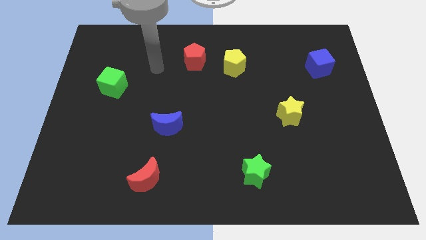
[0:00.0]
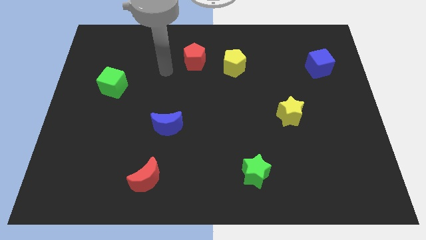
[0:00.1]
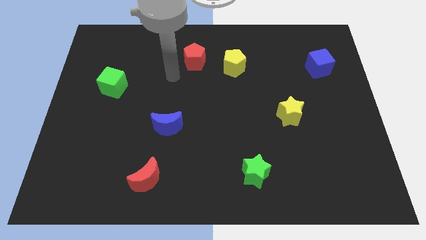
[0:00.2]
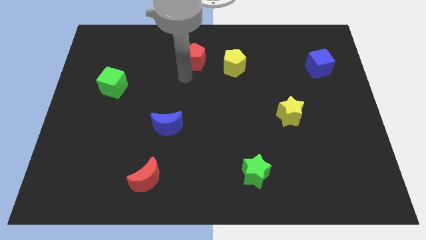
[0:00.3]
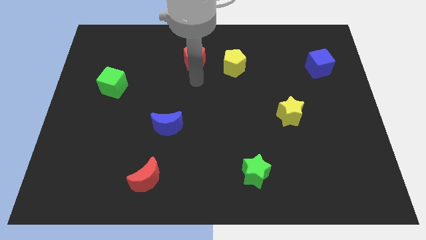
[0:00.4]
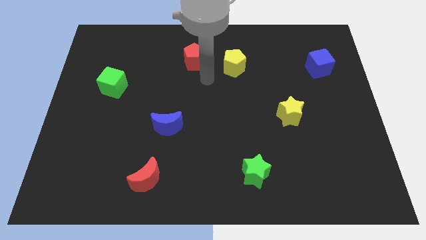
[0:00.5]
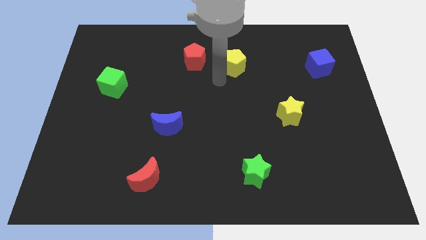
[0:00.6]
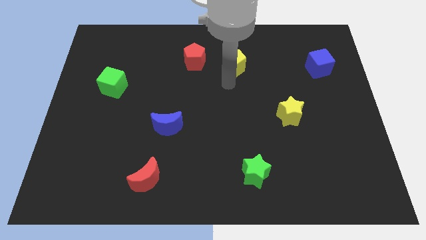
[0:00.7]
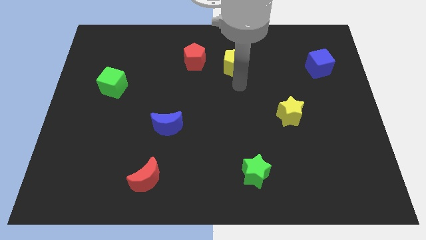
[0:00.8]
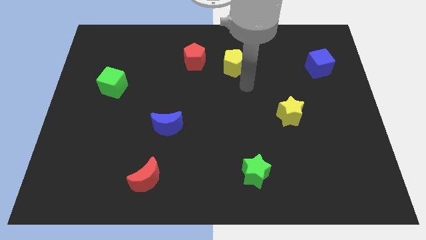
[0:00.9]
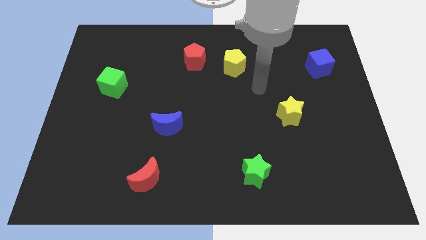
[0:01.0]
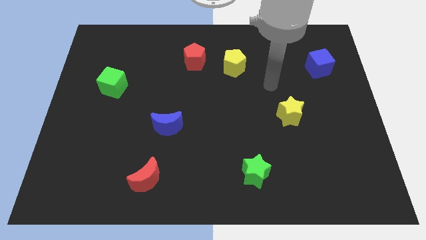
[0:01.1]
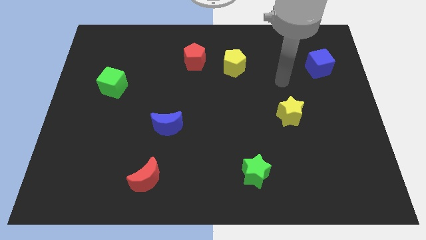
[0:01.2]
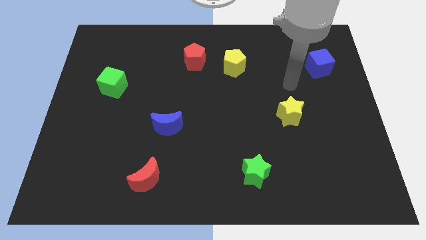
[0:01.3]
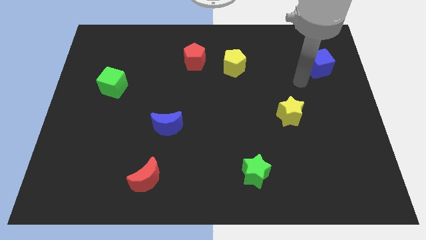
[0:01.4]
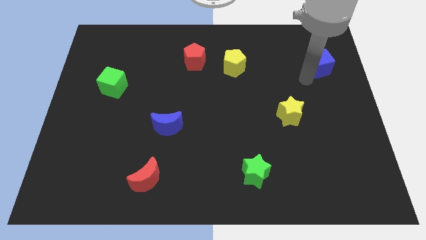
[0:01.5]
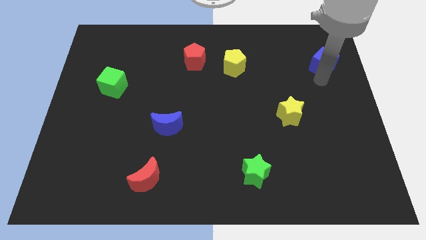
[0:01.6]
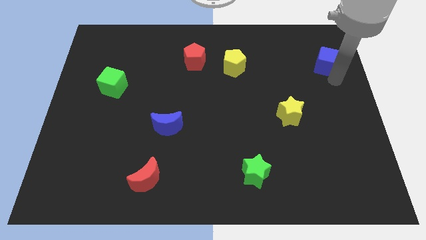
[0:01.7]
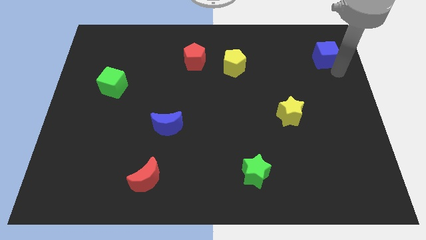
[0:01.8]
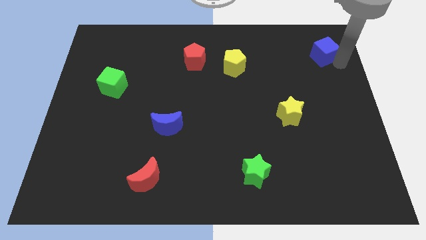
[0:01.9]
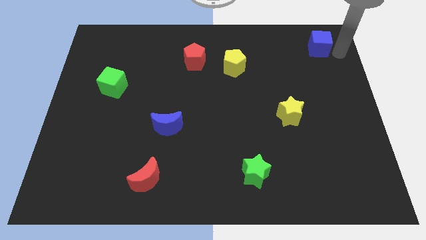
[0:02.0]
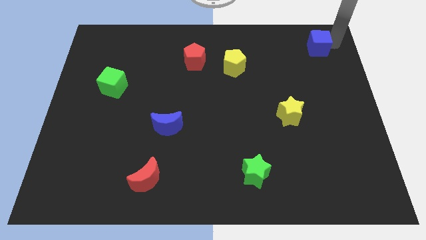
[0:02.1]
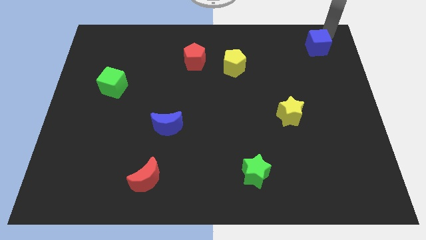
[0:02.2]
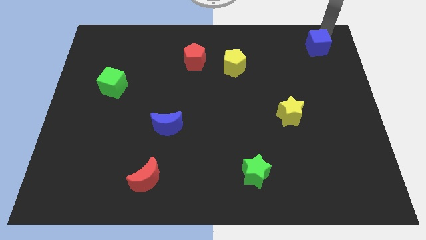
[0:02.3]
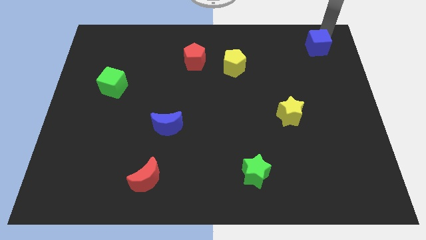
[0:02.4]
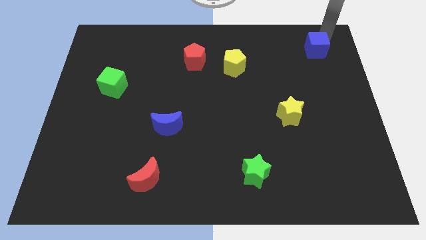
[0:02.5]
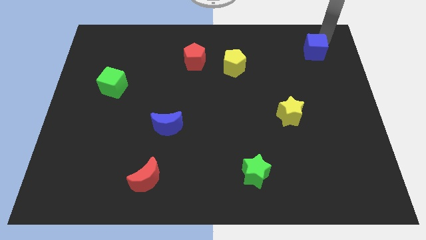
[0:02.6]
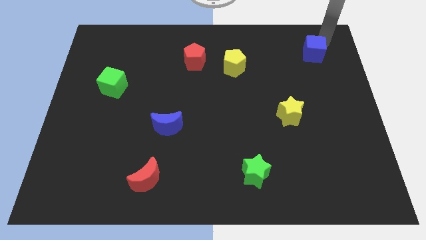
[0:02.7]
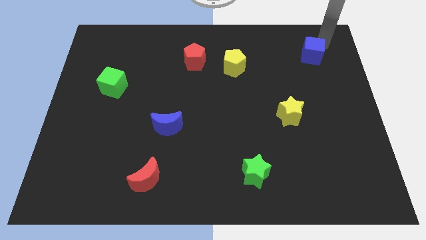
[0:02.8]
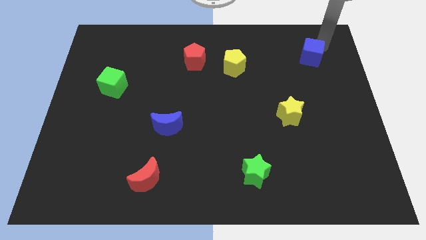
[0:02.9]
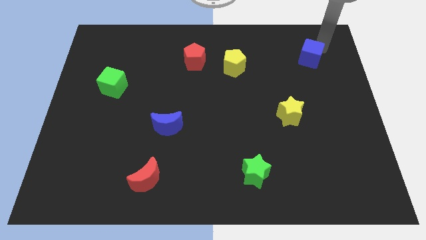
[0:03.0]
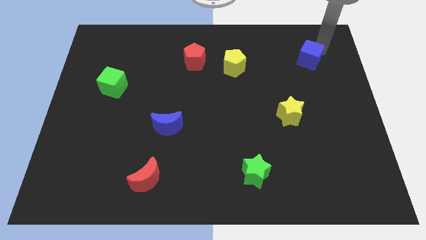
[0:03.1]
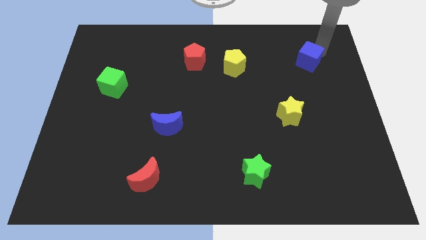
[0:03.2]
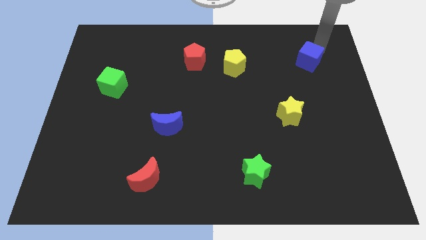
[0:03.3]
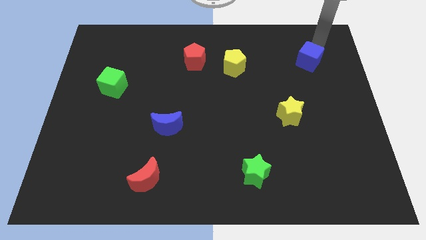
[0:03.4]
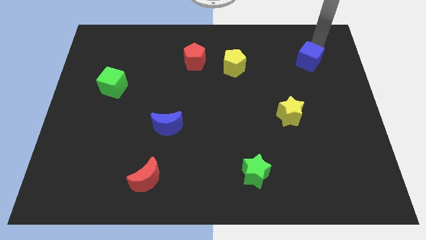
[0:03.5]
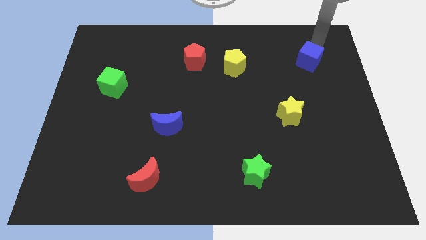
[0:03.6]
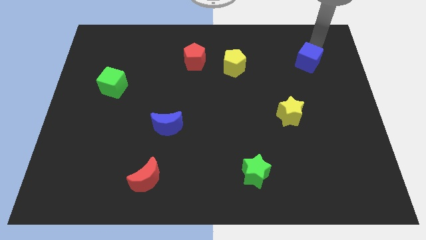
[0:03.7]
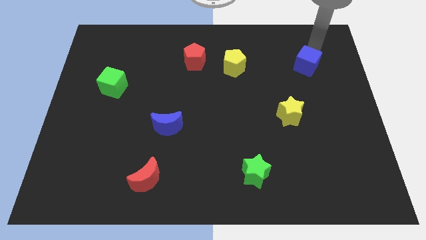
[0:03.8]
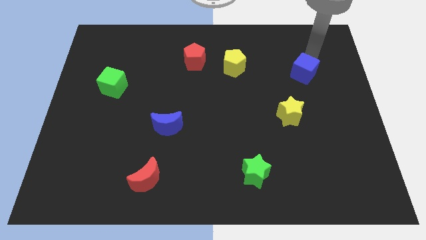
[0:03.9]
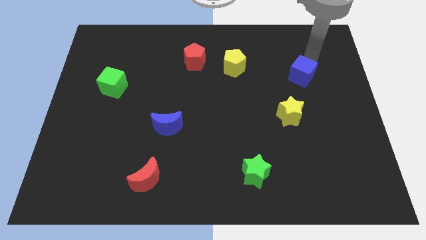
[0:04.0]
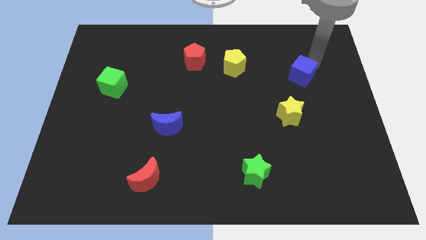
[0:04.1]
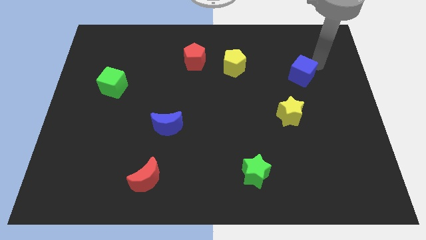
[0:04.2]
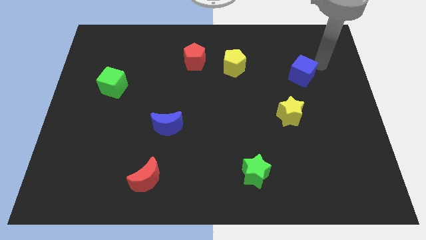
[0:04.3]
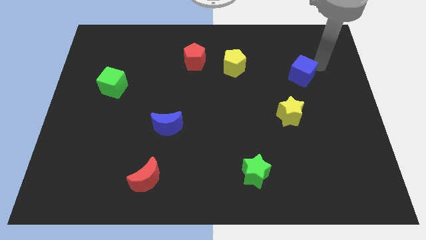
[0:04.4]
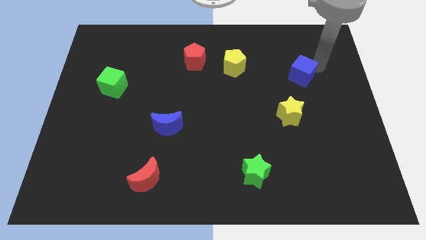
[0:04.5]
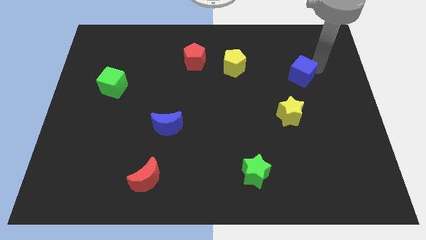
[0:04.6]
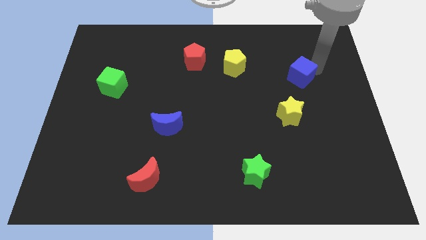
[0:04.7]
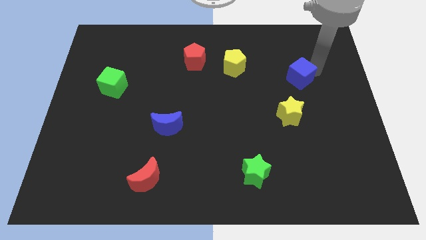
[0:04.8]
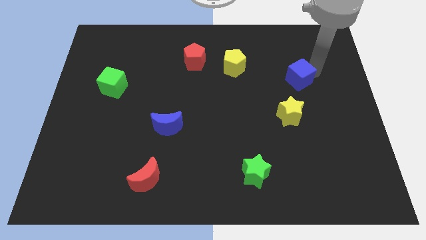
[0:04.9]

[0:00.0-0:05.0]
push the blue cube slightly downwards and left diagonally

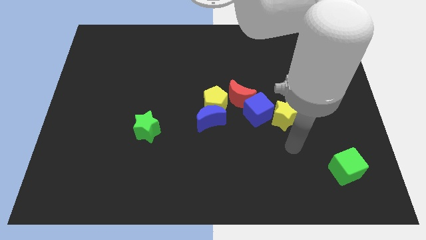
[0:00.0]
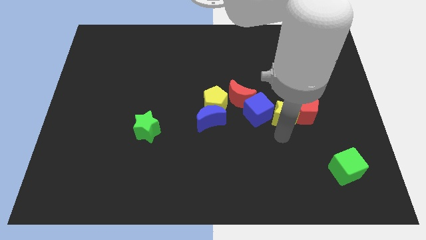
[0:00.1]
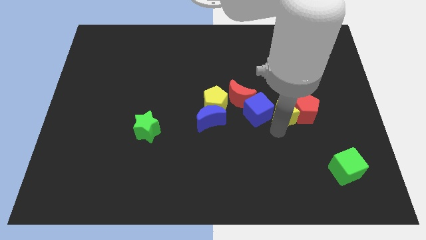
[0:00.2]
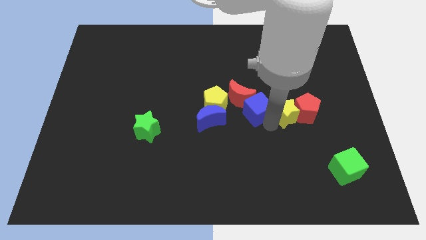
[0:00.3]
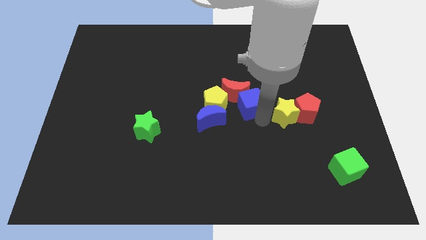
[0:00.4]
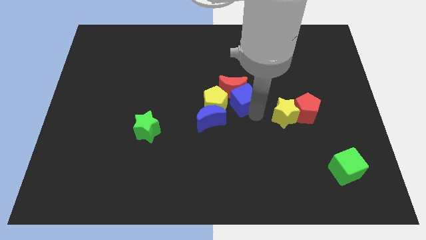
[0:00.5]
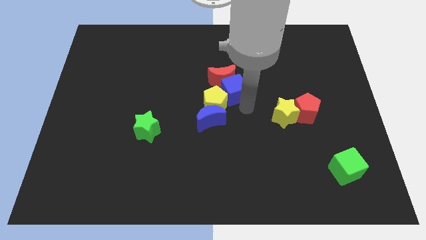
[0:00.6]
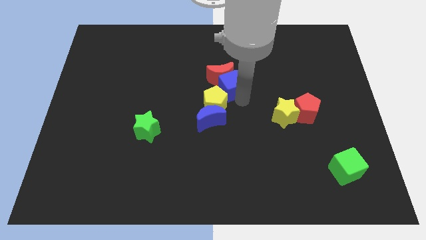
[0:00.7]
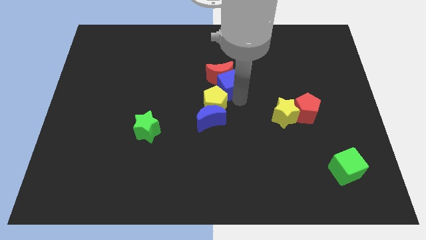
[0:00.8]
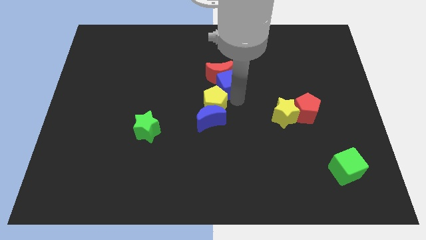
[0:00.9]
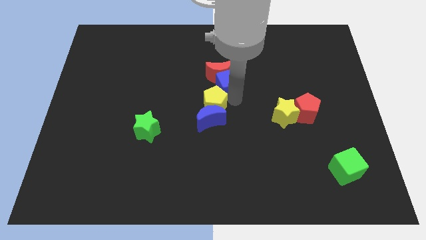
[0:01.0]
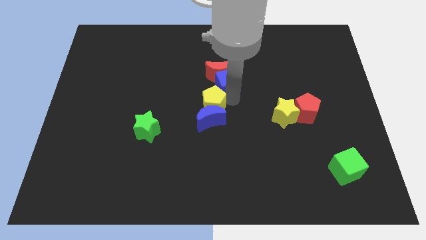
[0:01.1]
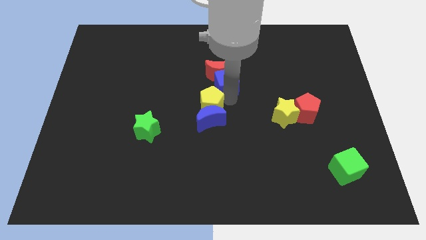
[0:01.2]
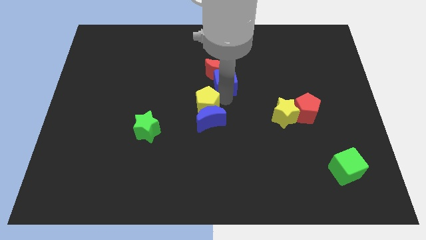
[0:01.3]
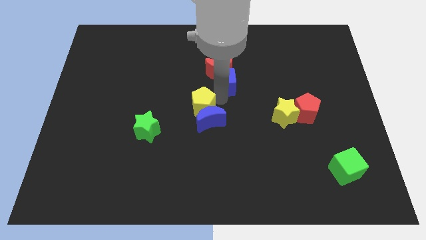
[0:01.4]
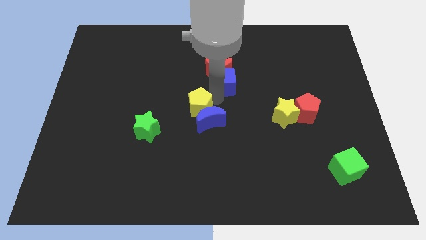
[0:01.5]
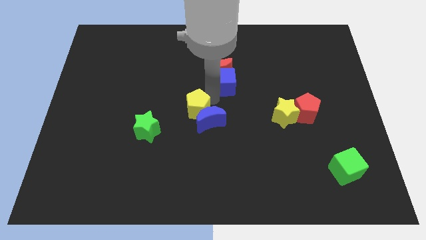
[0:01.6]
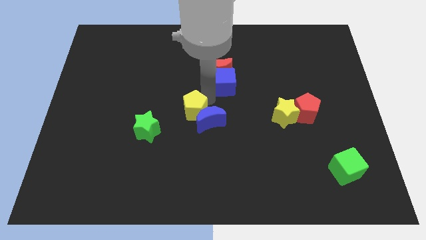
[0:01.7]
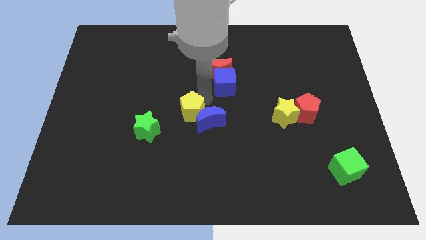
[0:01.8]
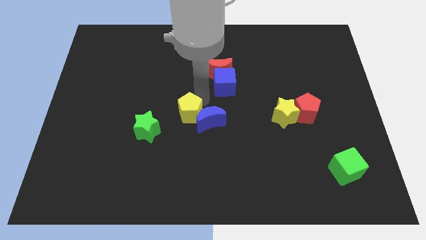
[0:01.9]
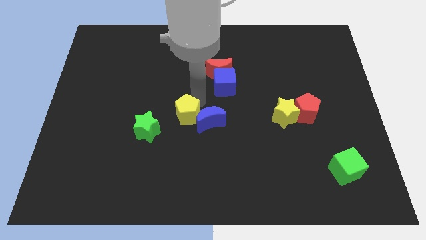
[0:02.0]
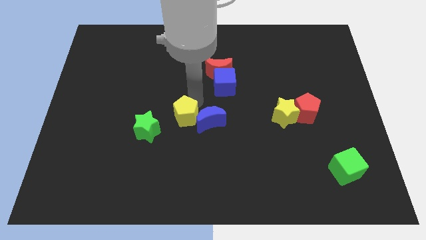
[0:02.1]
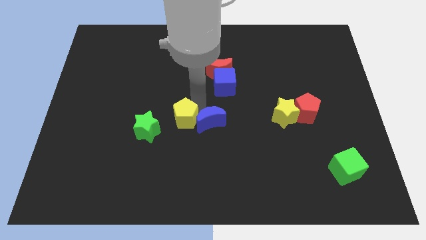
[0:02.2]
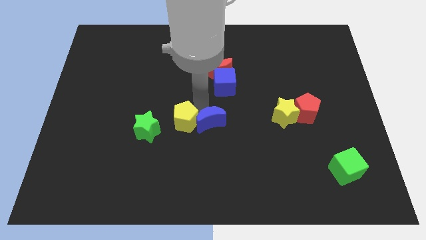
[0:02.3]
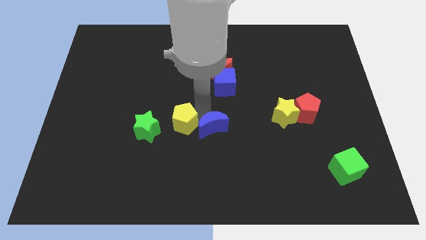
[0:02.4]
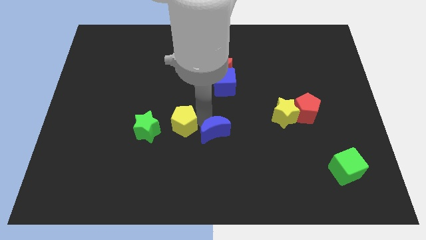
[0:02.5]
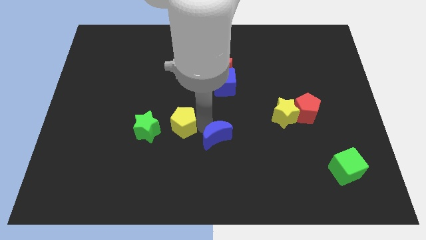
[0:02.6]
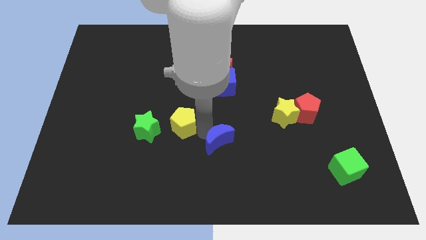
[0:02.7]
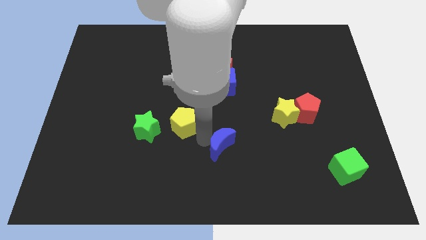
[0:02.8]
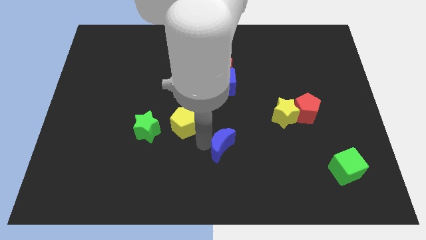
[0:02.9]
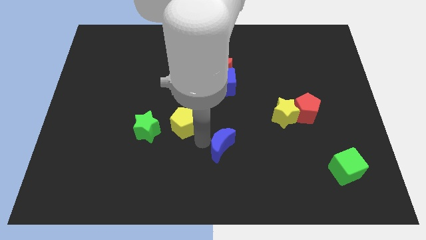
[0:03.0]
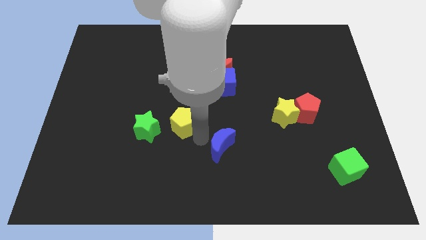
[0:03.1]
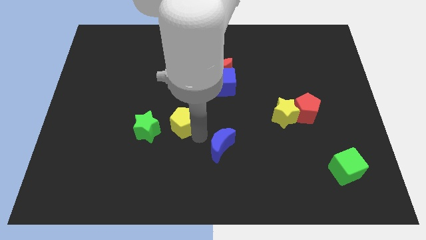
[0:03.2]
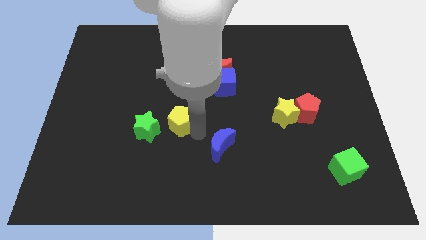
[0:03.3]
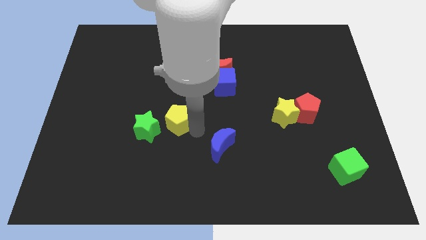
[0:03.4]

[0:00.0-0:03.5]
slide the yellow pentagon left somewhat

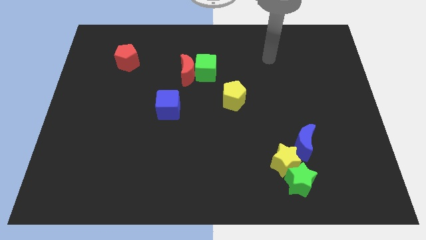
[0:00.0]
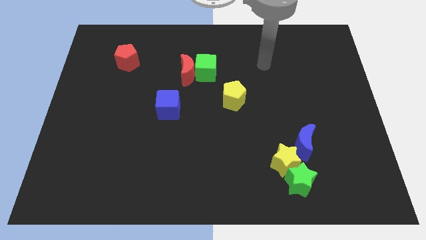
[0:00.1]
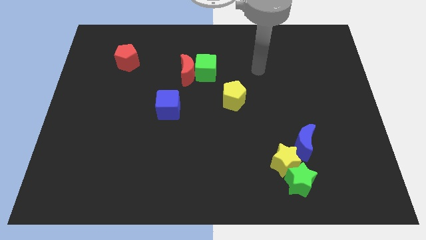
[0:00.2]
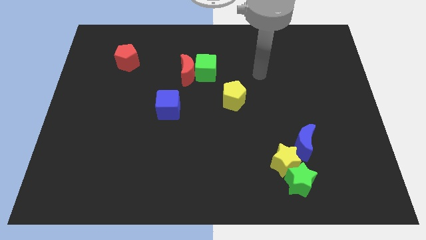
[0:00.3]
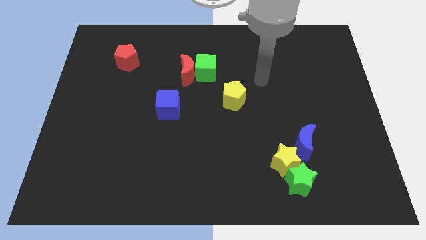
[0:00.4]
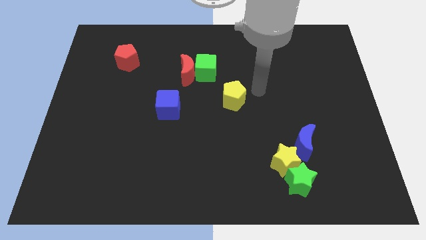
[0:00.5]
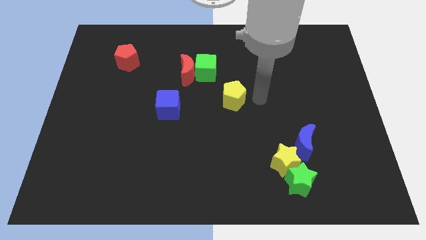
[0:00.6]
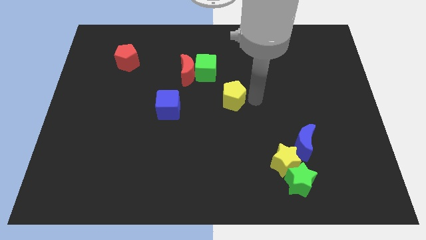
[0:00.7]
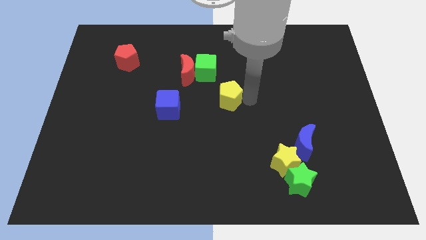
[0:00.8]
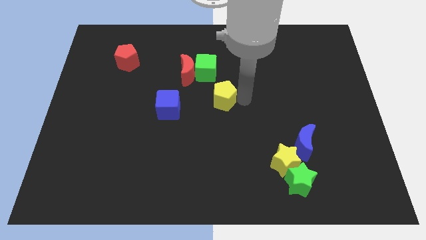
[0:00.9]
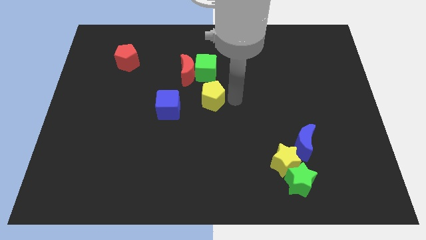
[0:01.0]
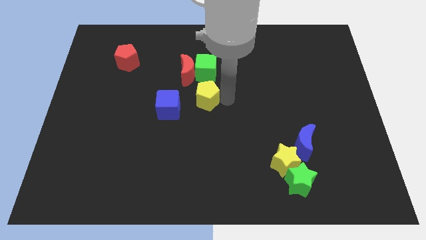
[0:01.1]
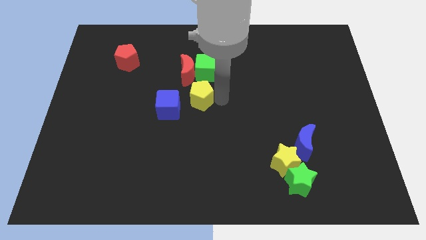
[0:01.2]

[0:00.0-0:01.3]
slide the yellow pentagon to the left a bit
